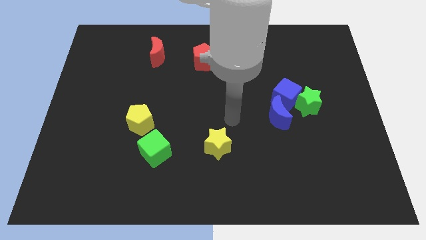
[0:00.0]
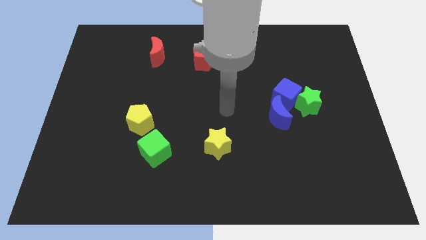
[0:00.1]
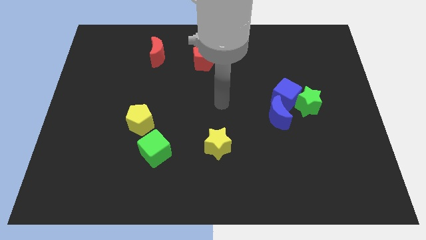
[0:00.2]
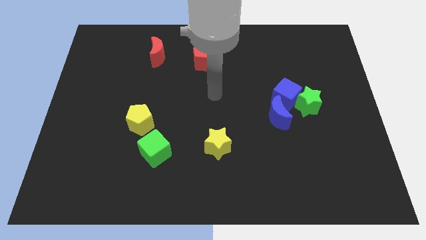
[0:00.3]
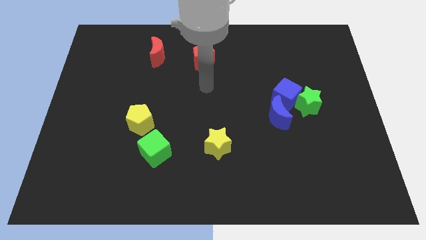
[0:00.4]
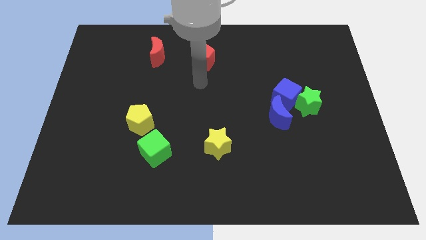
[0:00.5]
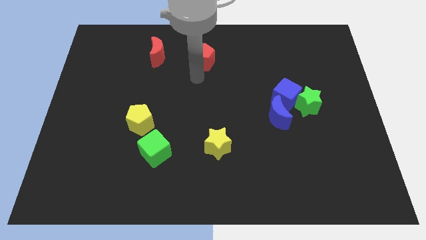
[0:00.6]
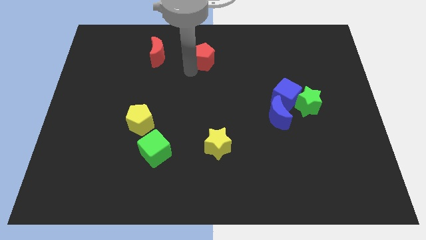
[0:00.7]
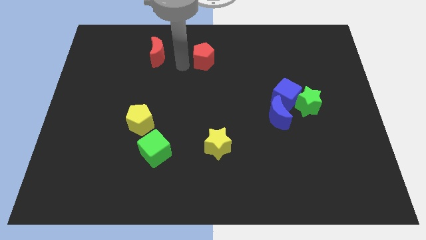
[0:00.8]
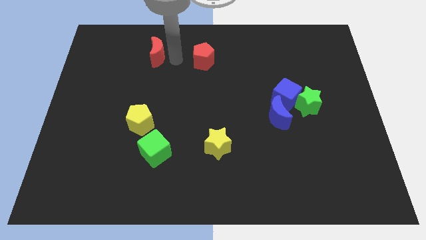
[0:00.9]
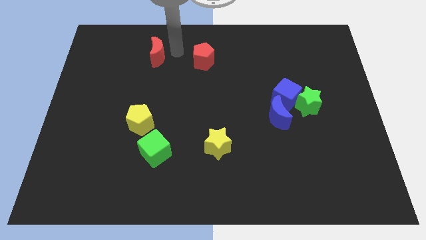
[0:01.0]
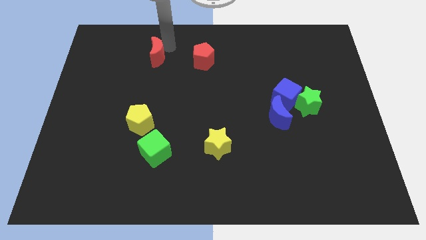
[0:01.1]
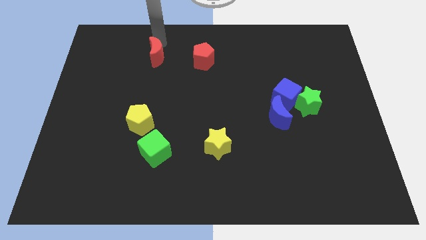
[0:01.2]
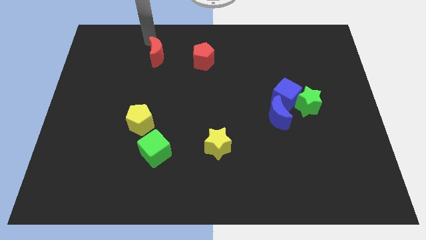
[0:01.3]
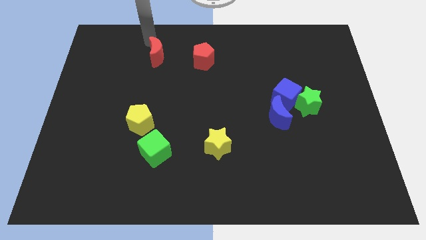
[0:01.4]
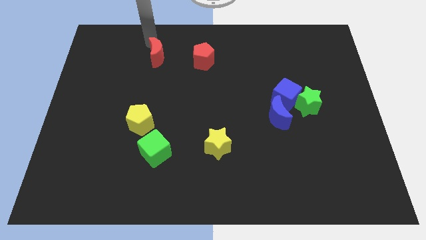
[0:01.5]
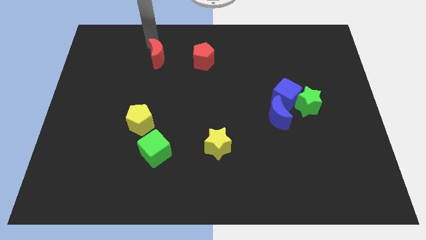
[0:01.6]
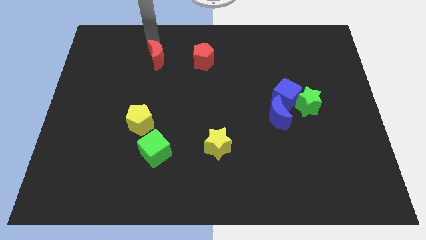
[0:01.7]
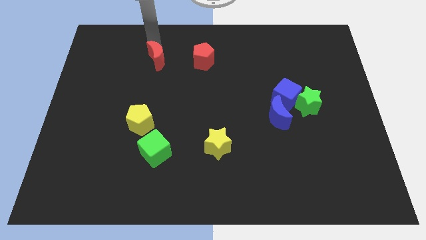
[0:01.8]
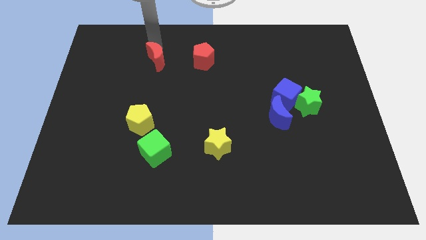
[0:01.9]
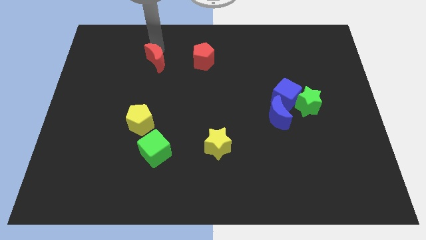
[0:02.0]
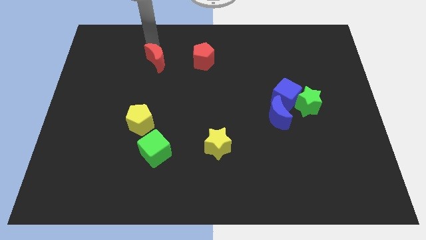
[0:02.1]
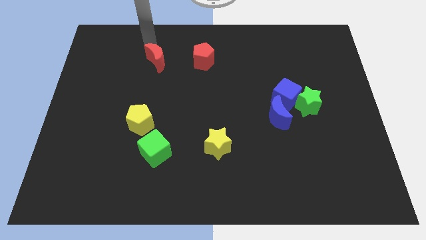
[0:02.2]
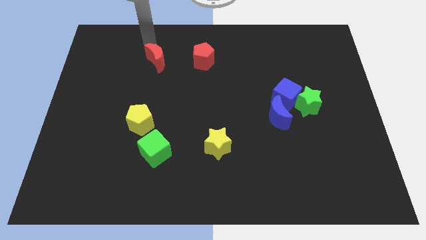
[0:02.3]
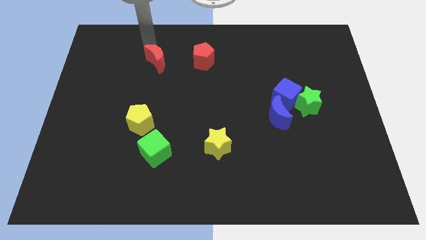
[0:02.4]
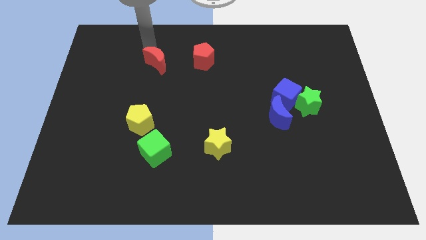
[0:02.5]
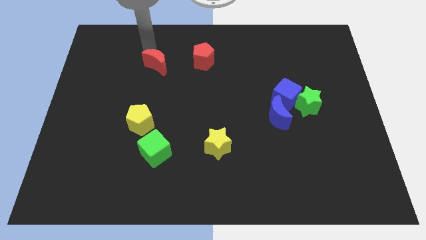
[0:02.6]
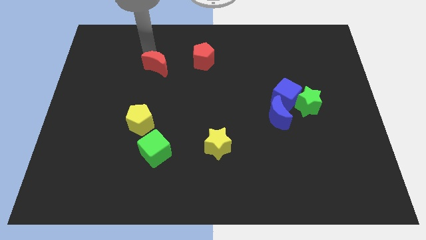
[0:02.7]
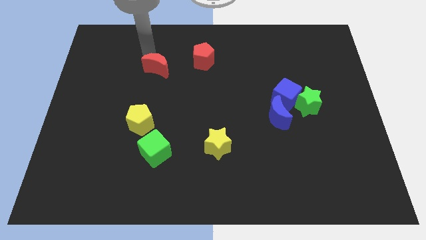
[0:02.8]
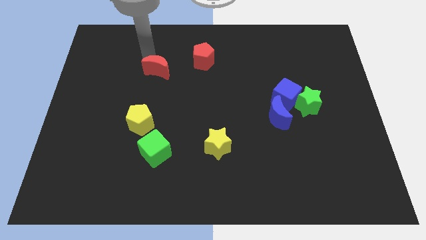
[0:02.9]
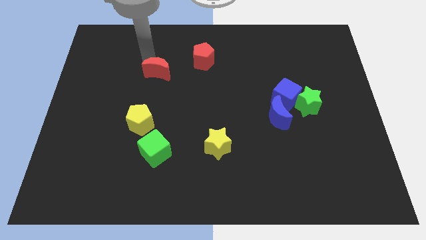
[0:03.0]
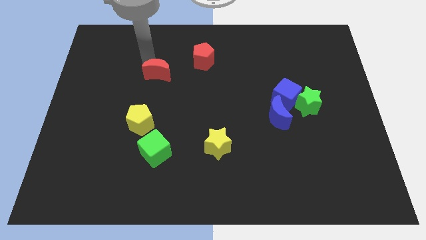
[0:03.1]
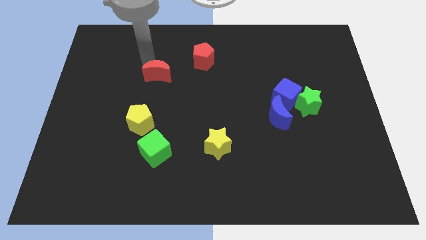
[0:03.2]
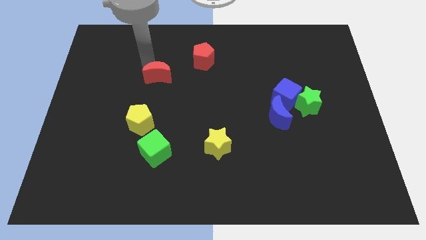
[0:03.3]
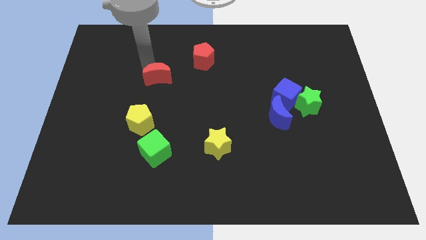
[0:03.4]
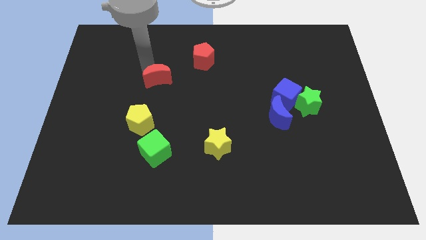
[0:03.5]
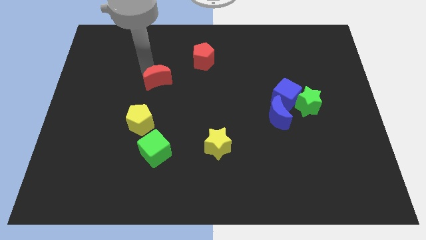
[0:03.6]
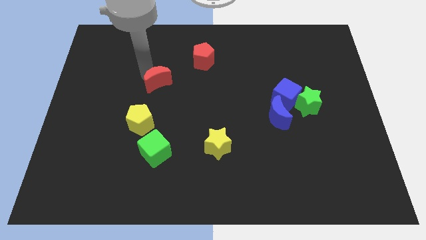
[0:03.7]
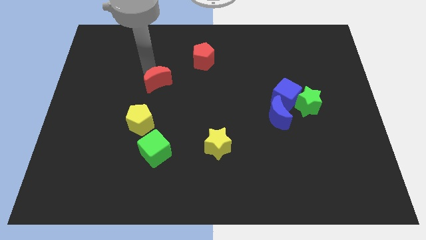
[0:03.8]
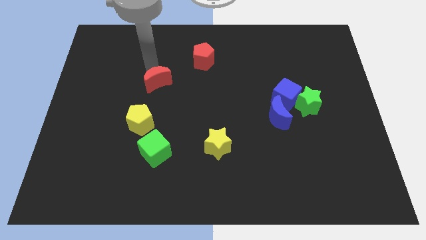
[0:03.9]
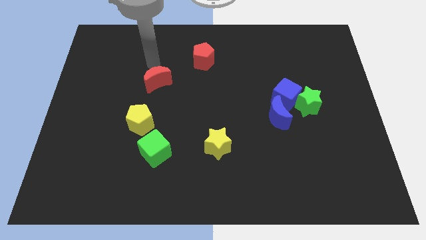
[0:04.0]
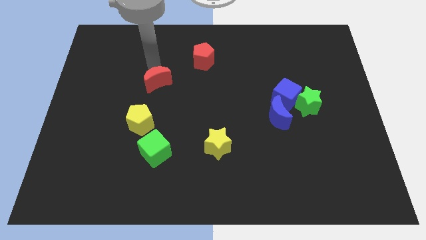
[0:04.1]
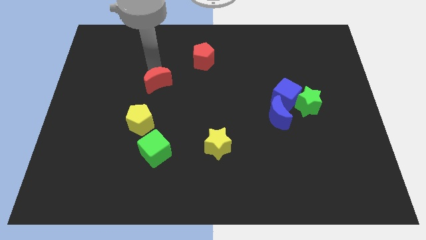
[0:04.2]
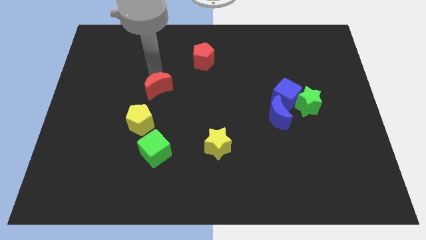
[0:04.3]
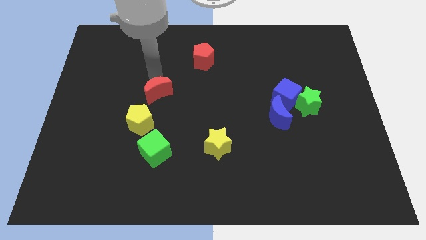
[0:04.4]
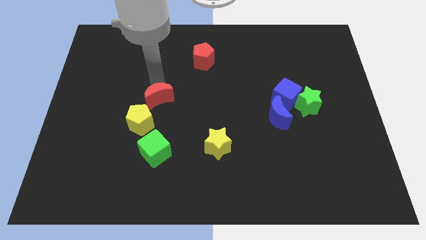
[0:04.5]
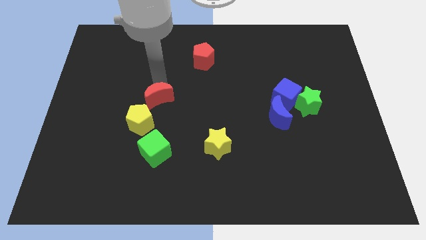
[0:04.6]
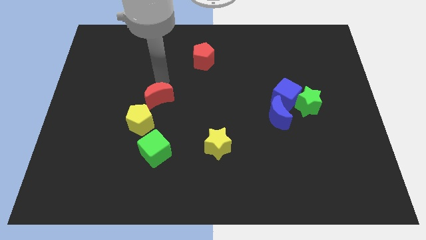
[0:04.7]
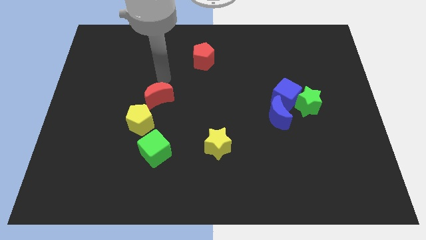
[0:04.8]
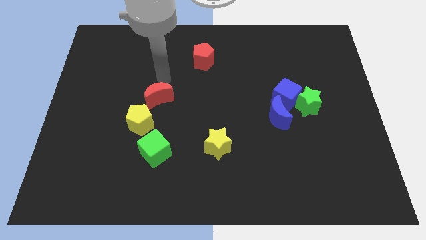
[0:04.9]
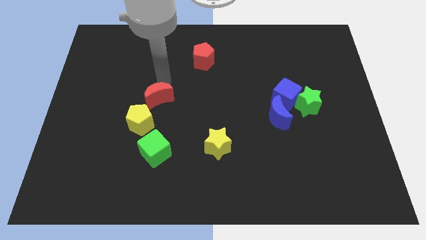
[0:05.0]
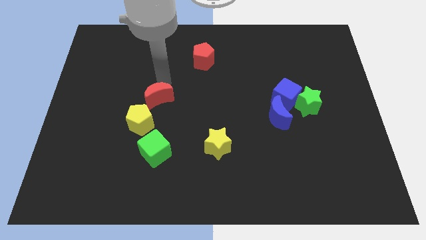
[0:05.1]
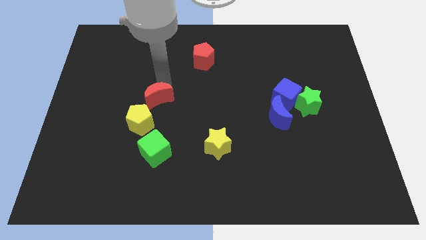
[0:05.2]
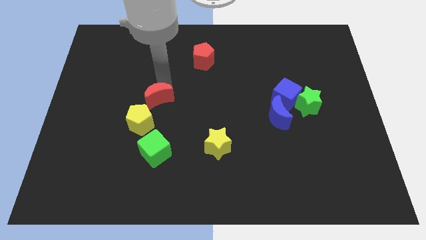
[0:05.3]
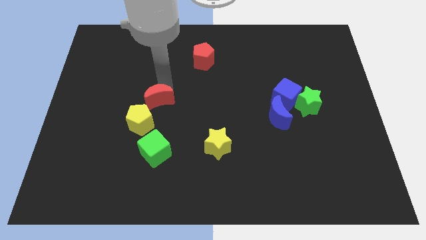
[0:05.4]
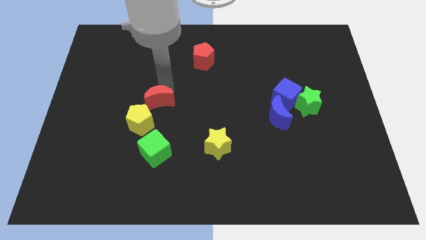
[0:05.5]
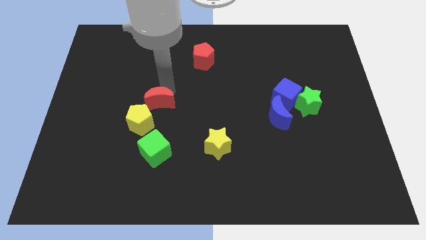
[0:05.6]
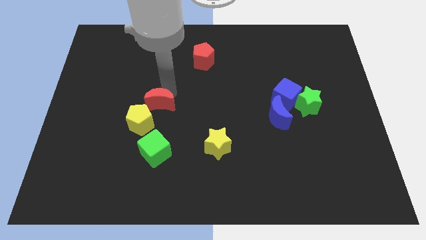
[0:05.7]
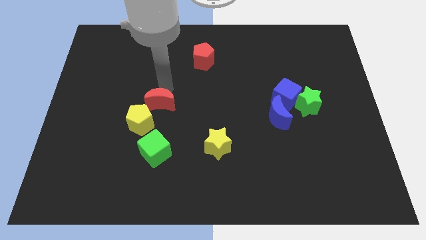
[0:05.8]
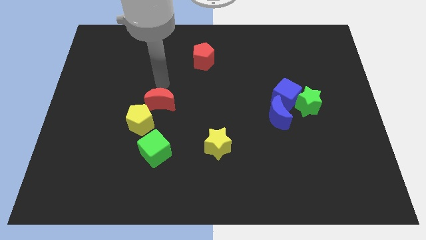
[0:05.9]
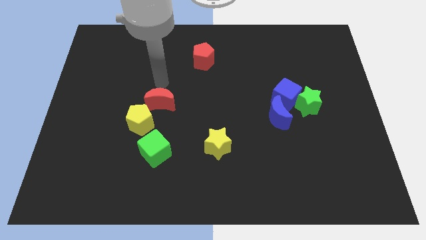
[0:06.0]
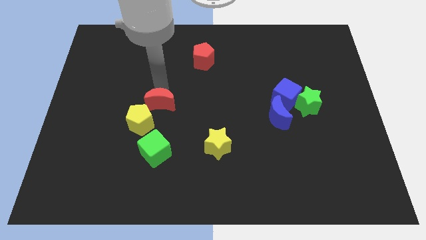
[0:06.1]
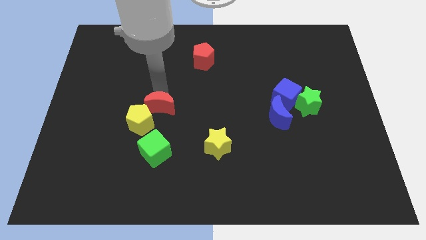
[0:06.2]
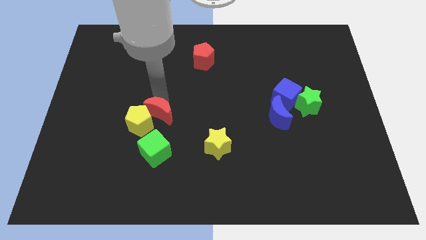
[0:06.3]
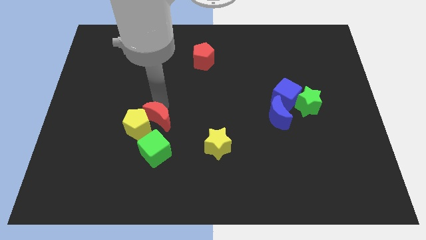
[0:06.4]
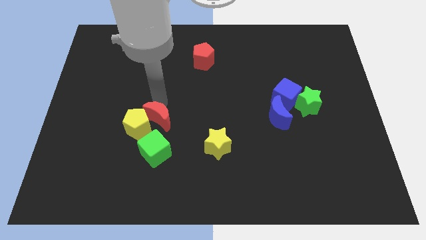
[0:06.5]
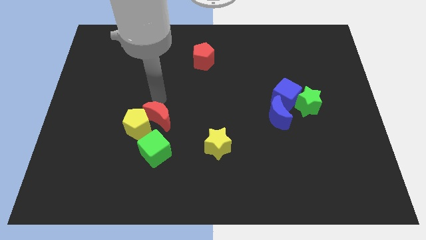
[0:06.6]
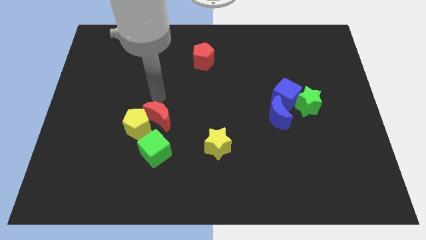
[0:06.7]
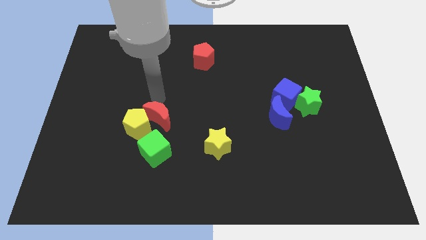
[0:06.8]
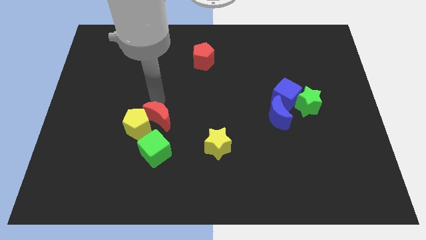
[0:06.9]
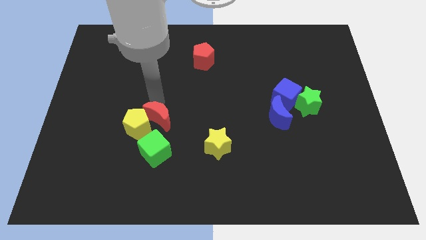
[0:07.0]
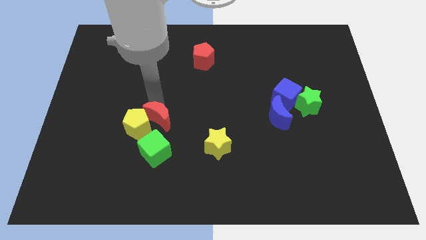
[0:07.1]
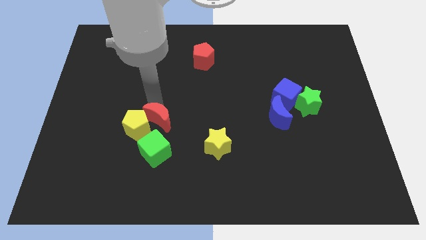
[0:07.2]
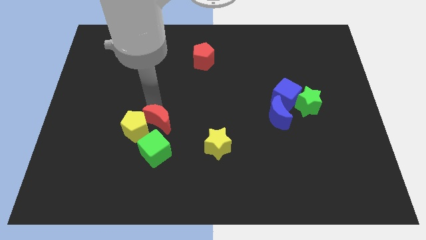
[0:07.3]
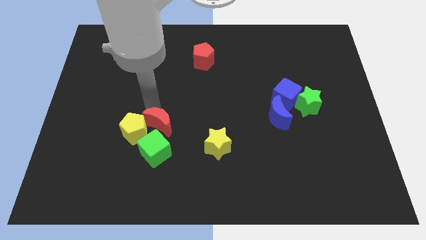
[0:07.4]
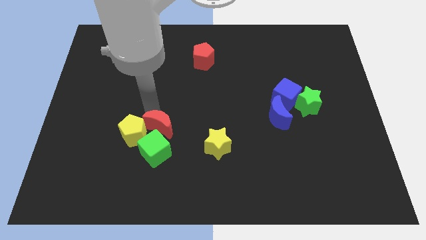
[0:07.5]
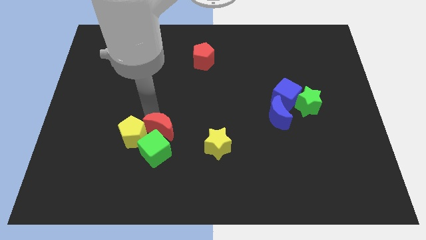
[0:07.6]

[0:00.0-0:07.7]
put the red moon to the green cube
